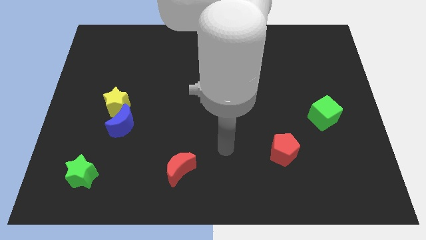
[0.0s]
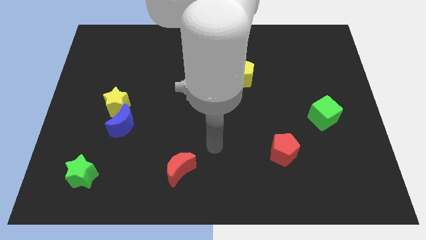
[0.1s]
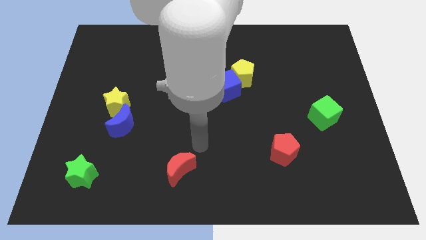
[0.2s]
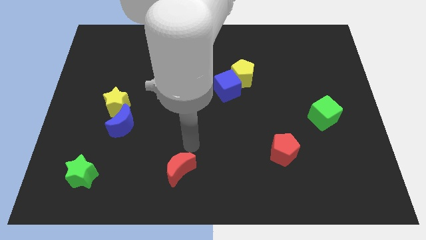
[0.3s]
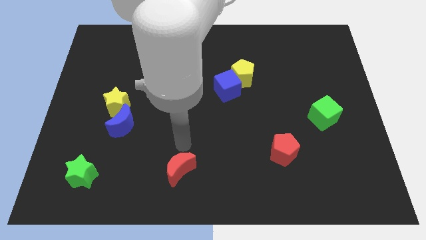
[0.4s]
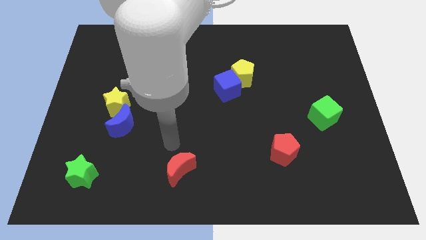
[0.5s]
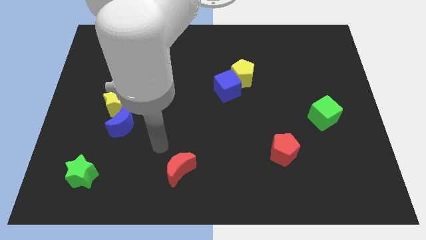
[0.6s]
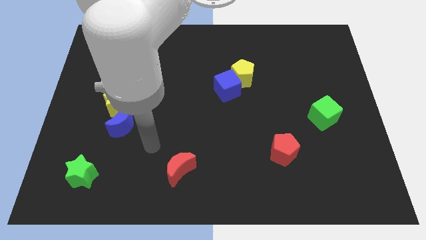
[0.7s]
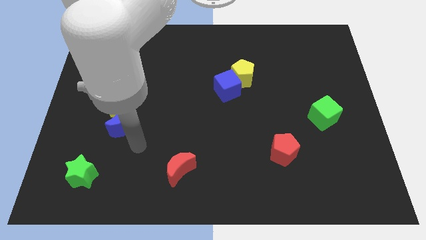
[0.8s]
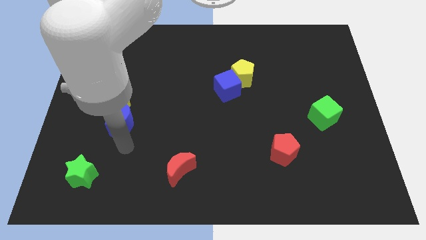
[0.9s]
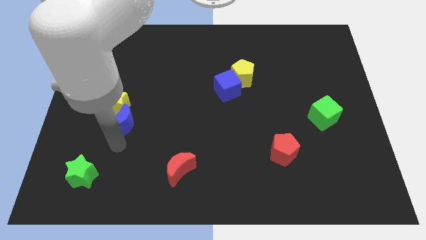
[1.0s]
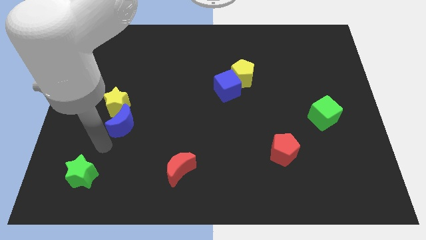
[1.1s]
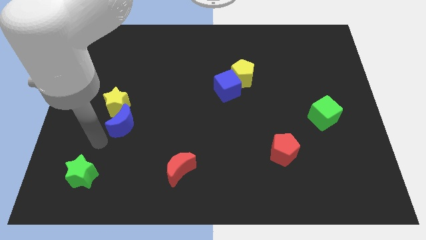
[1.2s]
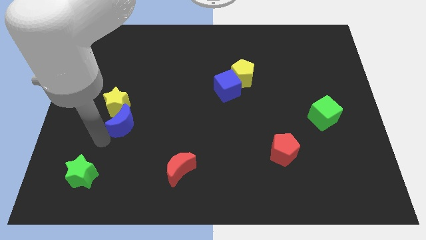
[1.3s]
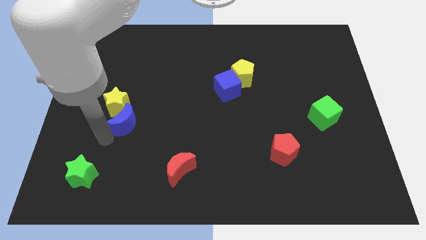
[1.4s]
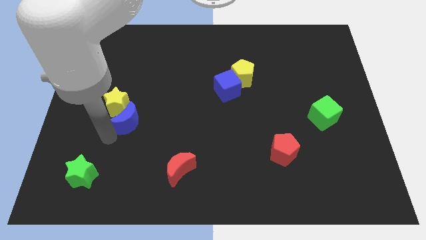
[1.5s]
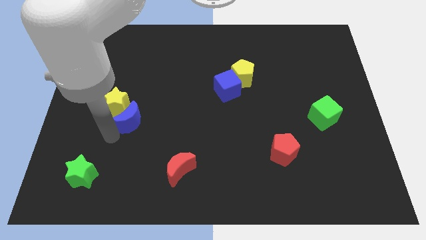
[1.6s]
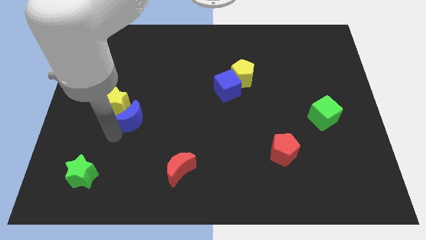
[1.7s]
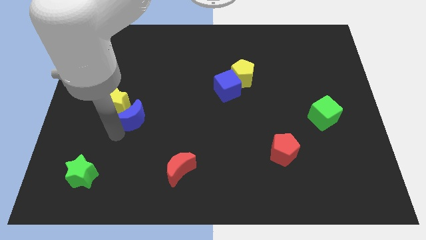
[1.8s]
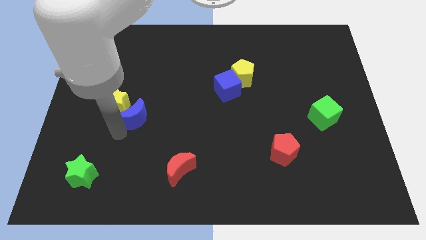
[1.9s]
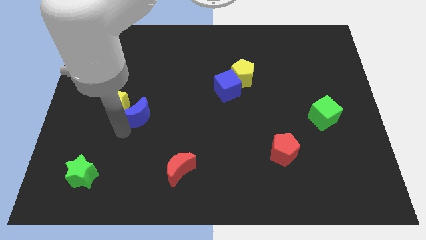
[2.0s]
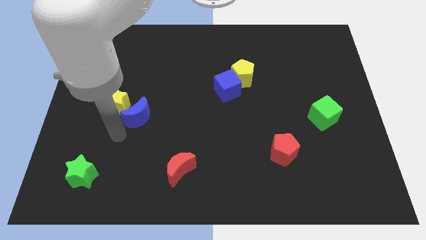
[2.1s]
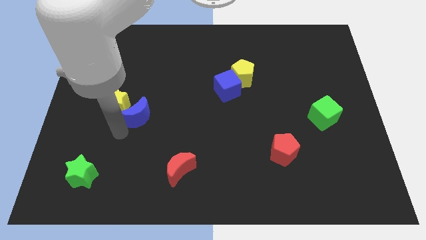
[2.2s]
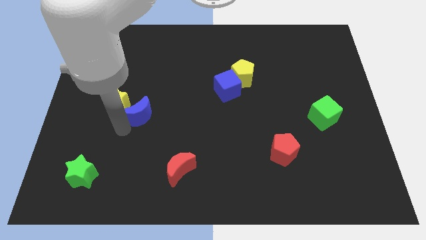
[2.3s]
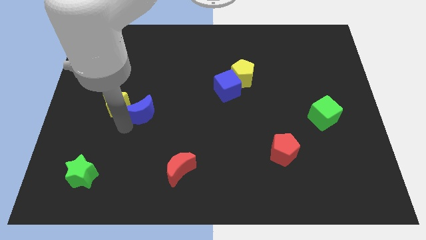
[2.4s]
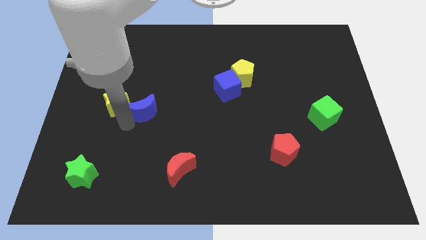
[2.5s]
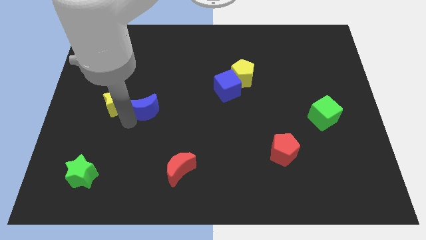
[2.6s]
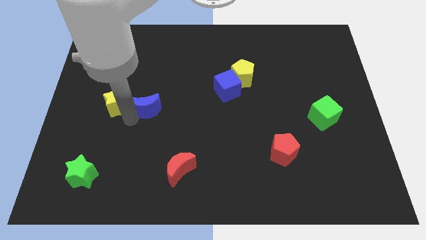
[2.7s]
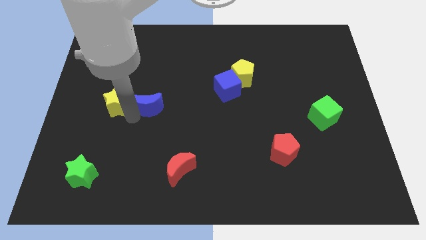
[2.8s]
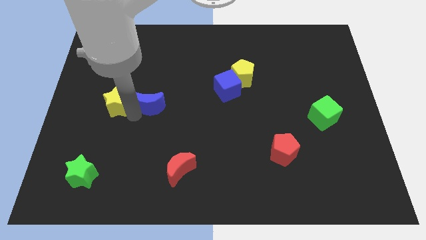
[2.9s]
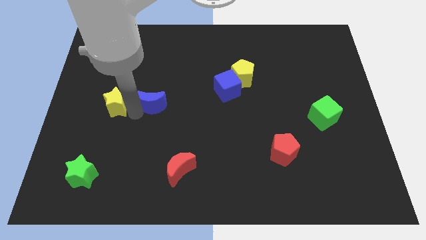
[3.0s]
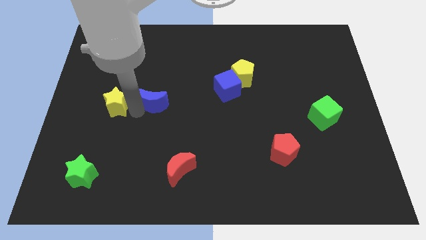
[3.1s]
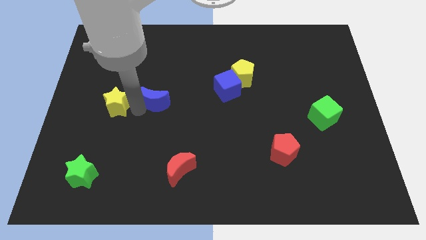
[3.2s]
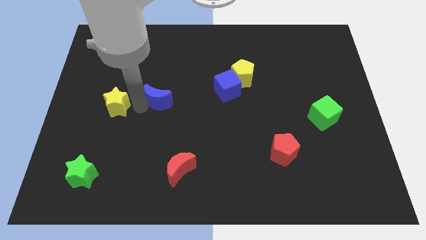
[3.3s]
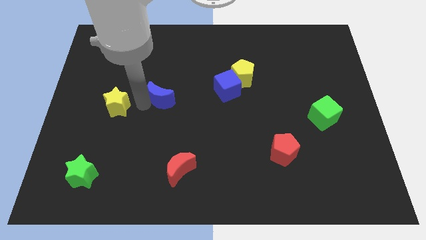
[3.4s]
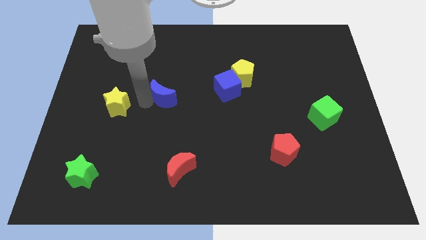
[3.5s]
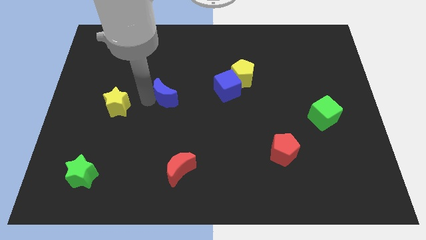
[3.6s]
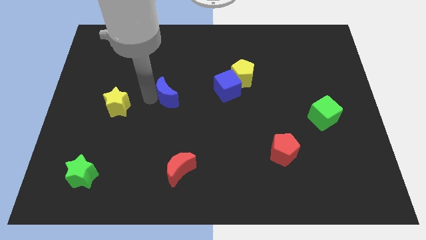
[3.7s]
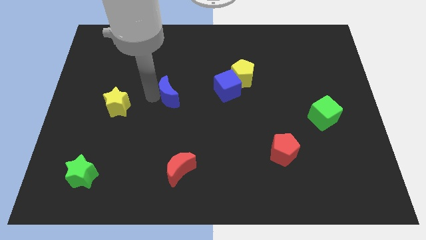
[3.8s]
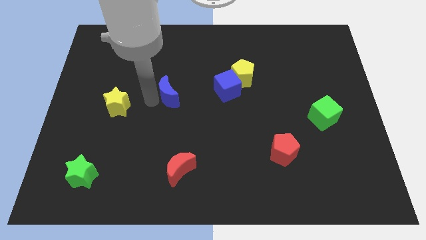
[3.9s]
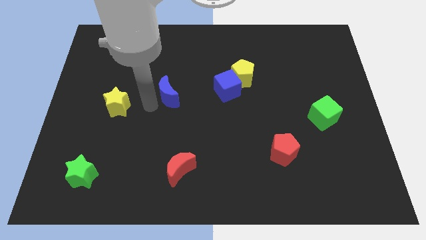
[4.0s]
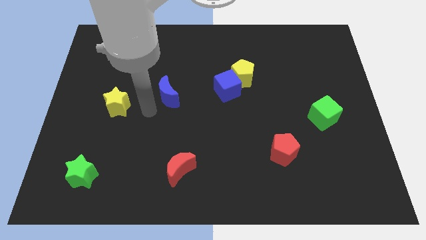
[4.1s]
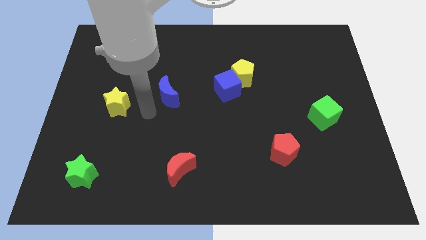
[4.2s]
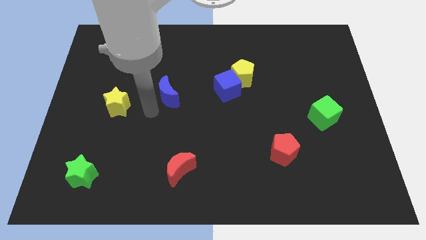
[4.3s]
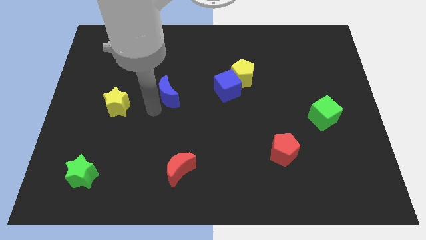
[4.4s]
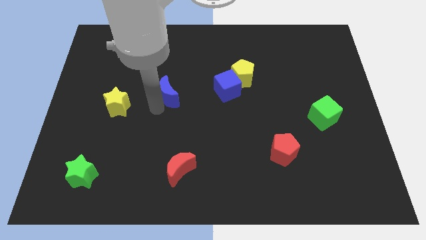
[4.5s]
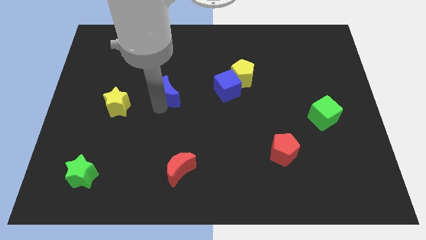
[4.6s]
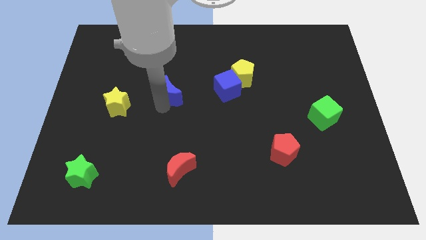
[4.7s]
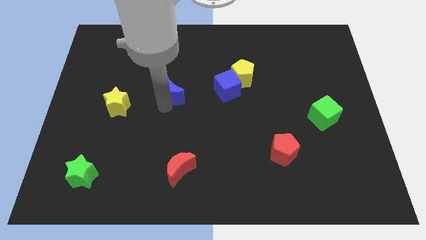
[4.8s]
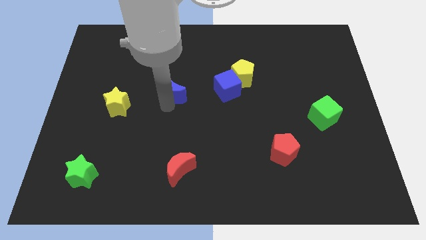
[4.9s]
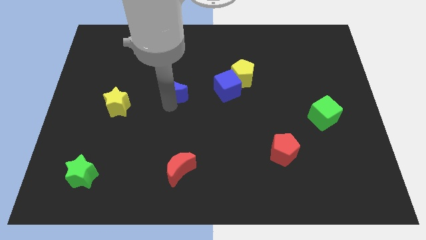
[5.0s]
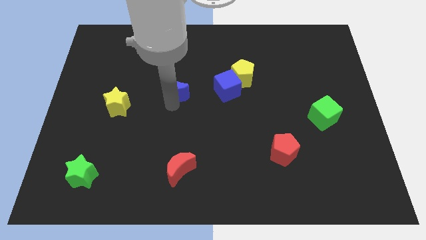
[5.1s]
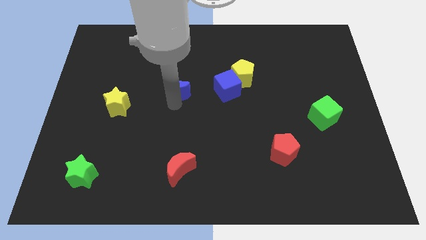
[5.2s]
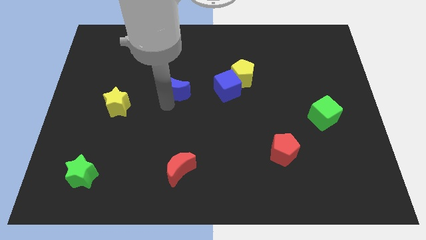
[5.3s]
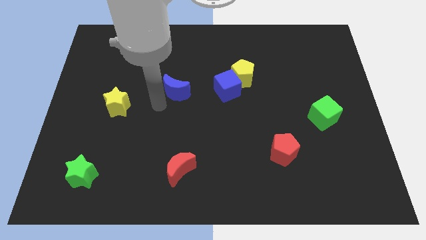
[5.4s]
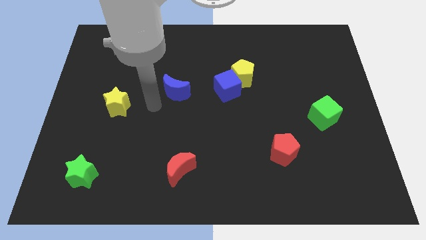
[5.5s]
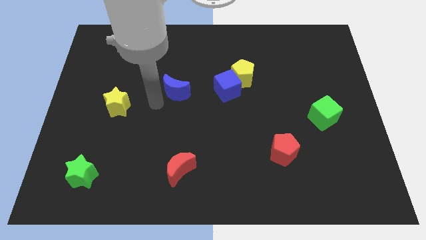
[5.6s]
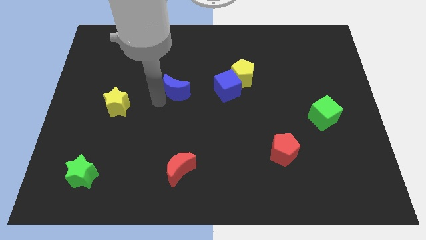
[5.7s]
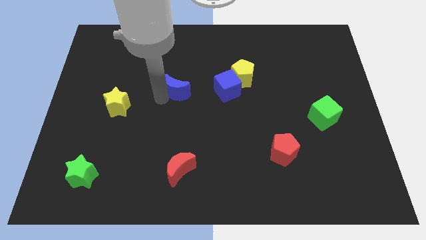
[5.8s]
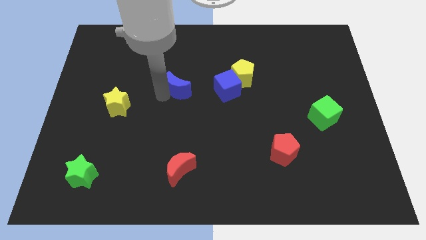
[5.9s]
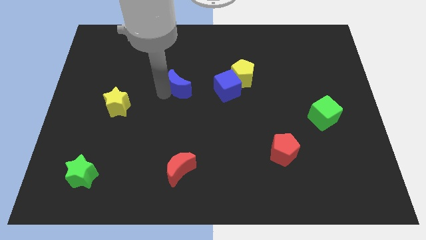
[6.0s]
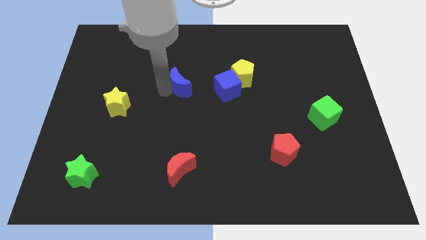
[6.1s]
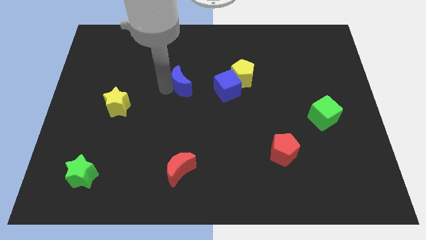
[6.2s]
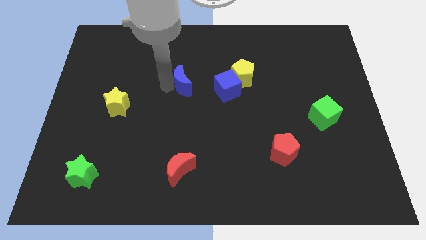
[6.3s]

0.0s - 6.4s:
push the blue moon left of the yellow pentagon

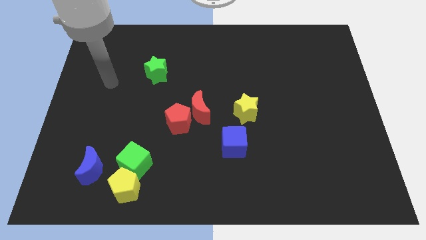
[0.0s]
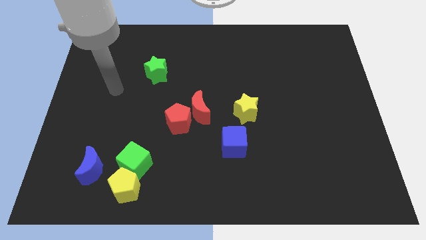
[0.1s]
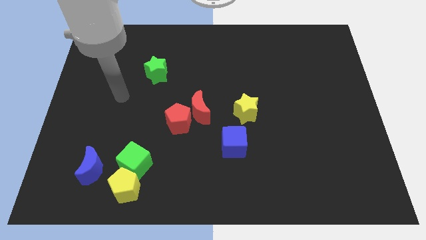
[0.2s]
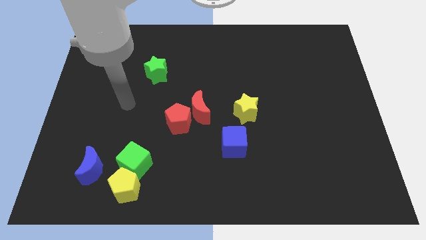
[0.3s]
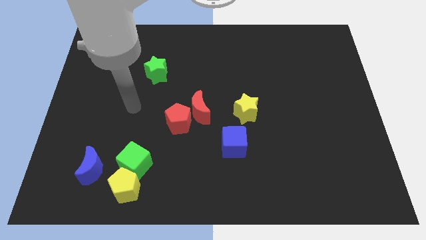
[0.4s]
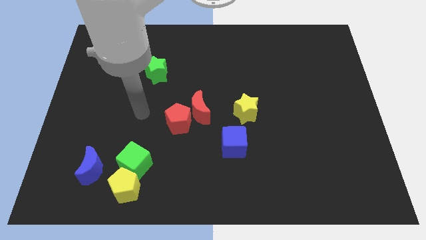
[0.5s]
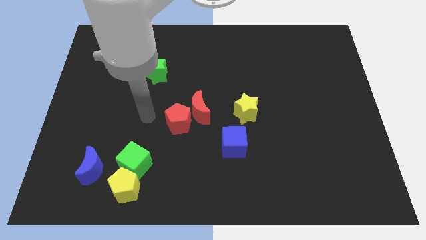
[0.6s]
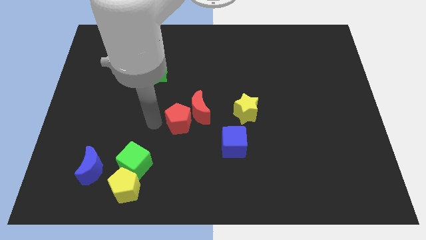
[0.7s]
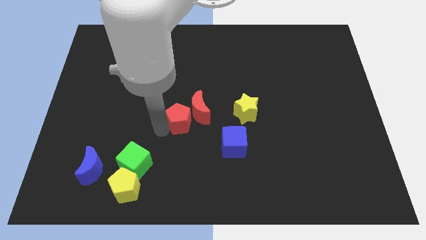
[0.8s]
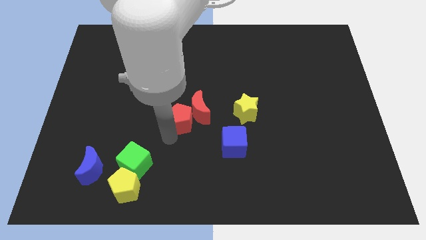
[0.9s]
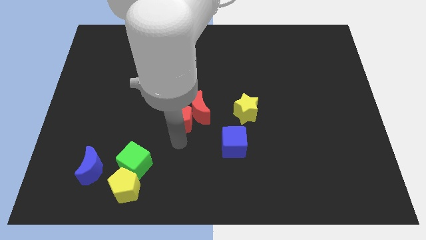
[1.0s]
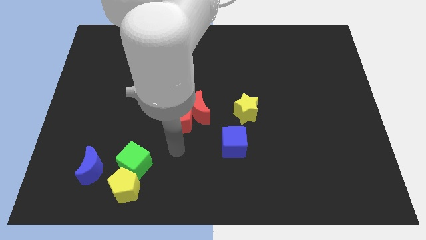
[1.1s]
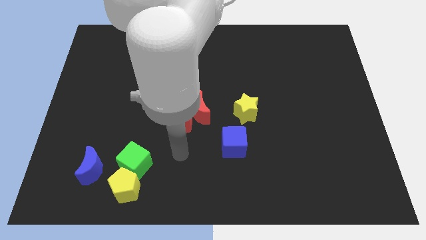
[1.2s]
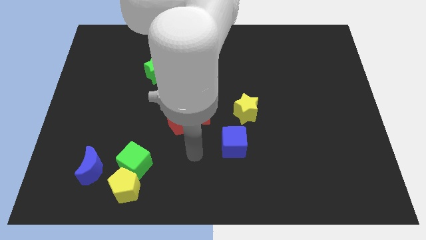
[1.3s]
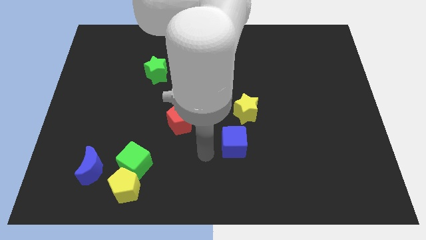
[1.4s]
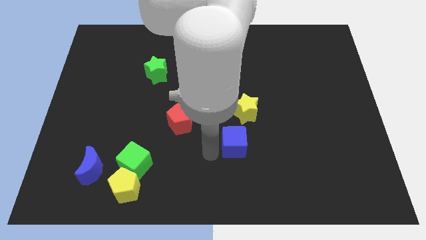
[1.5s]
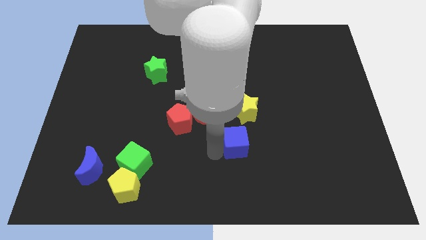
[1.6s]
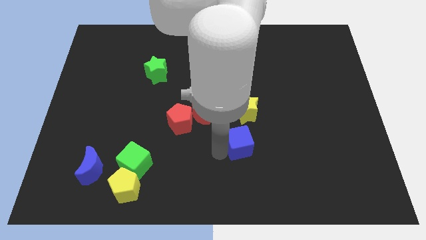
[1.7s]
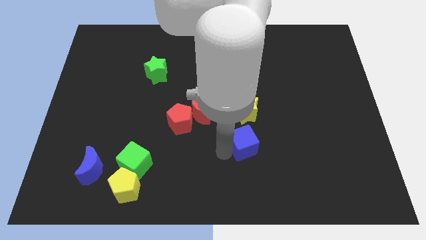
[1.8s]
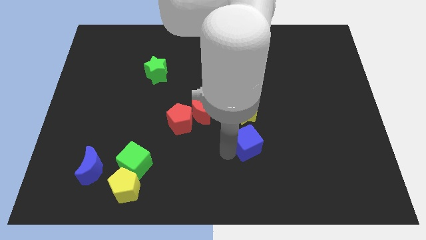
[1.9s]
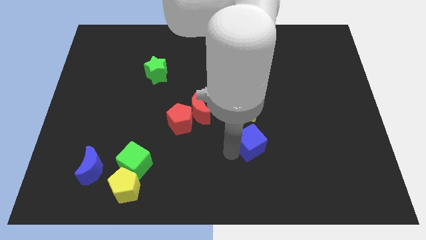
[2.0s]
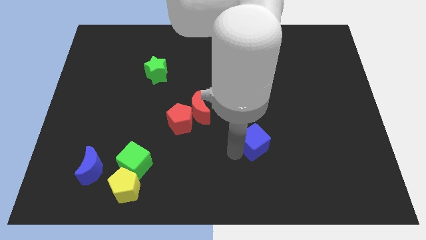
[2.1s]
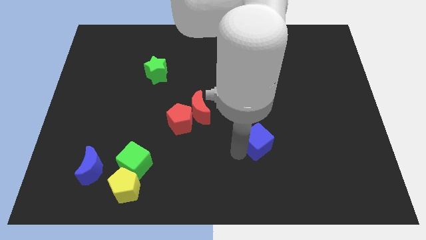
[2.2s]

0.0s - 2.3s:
slide the blue cube to the bottom right side of the yellow star
